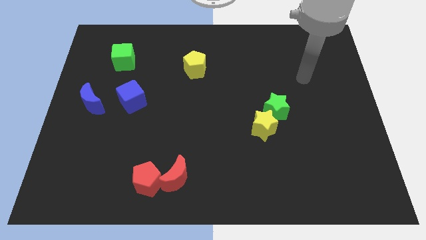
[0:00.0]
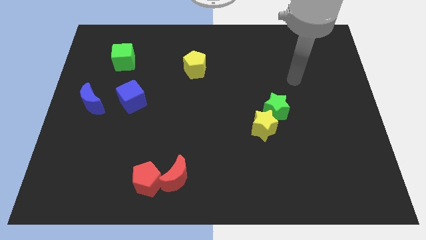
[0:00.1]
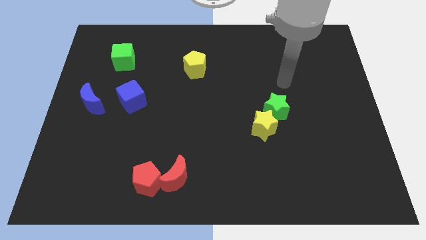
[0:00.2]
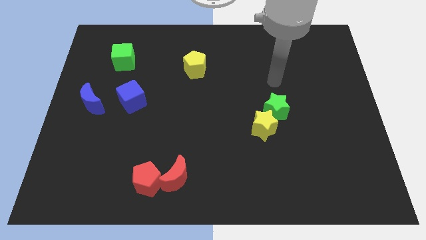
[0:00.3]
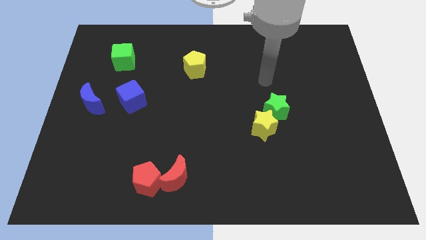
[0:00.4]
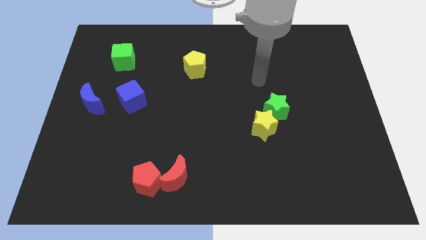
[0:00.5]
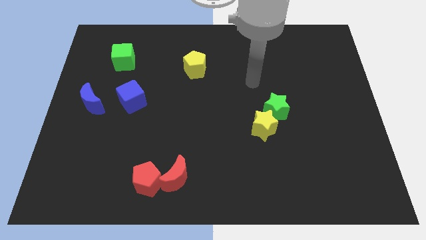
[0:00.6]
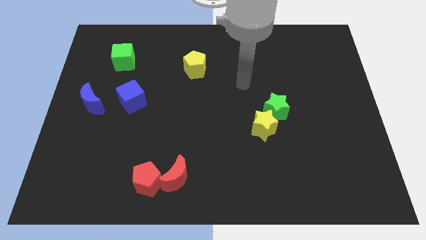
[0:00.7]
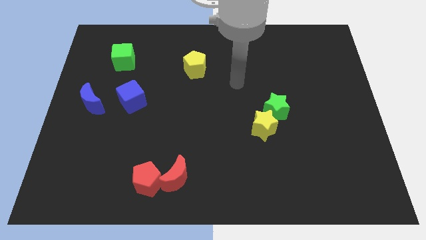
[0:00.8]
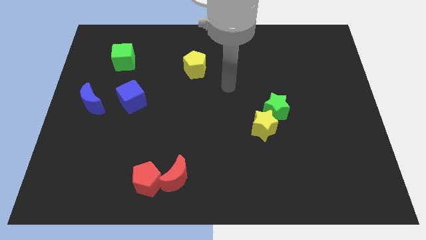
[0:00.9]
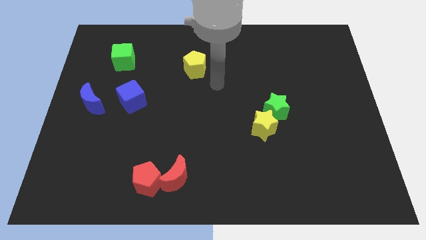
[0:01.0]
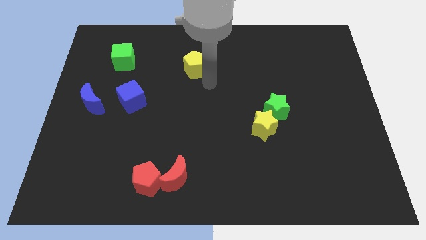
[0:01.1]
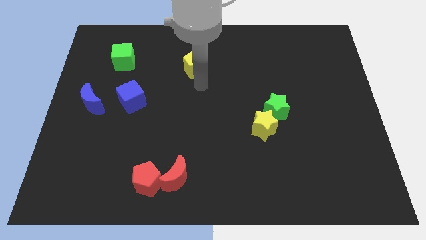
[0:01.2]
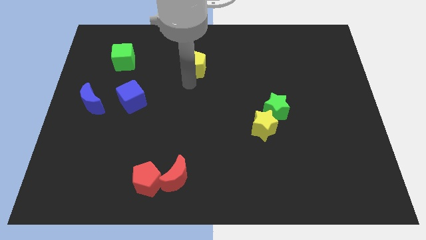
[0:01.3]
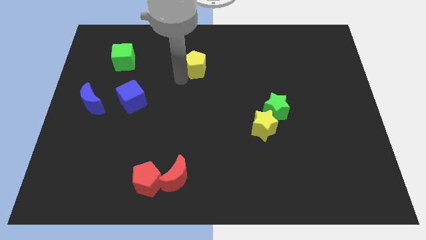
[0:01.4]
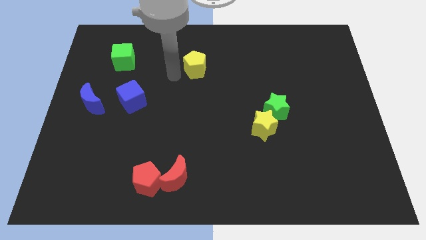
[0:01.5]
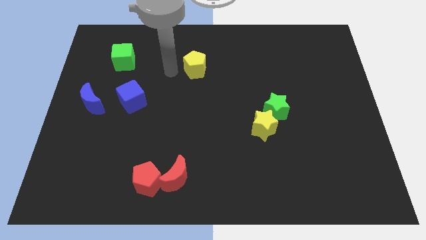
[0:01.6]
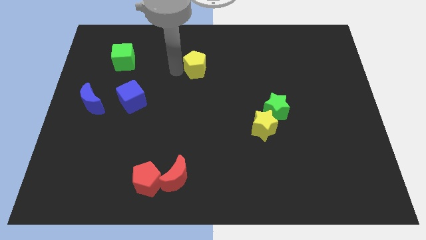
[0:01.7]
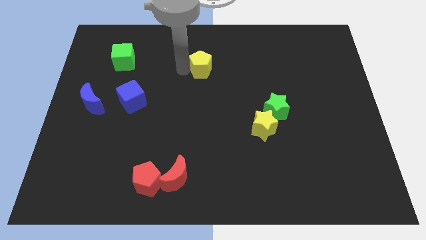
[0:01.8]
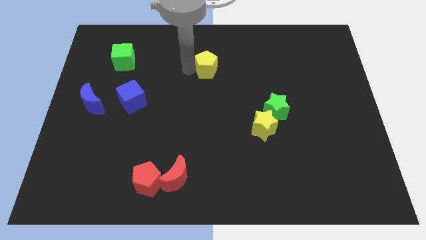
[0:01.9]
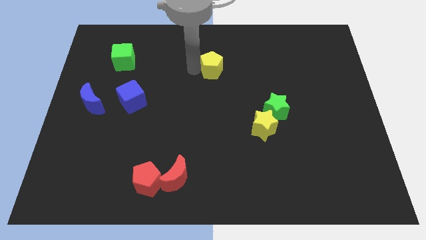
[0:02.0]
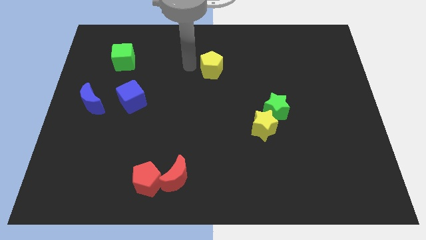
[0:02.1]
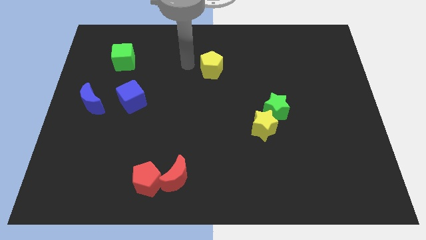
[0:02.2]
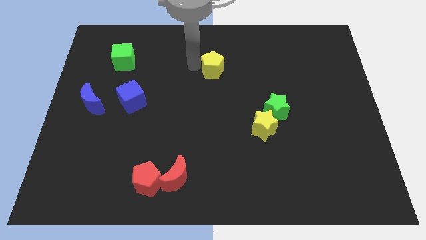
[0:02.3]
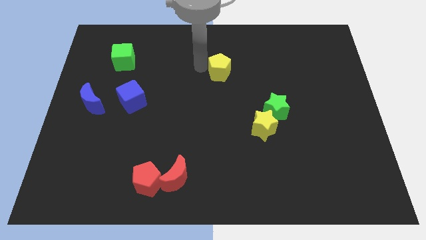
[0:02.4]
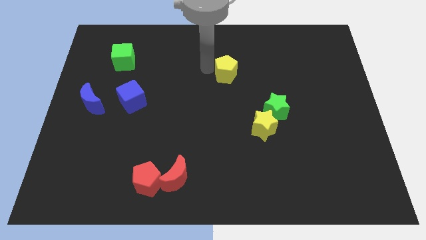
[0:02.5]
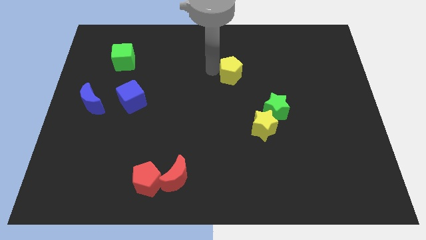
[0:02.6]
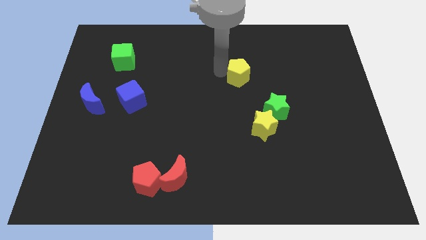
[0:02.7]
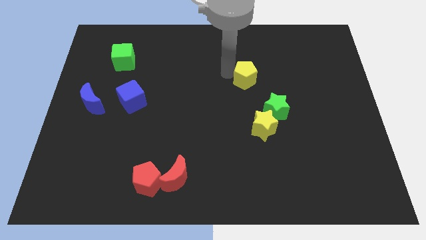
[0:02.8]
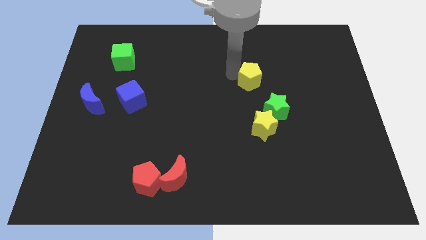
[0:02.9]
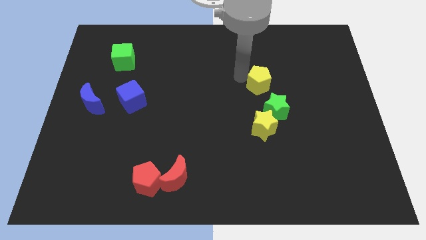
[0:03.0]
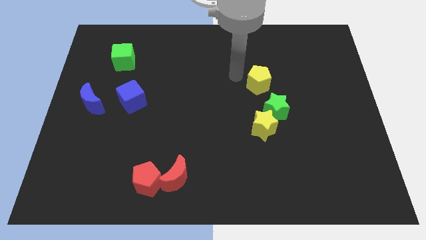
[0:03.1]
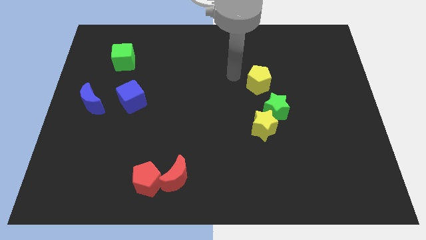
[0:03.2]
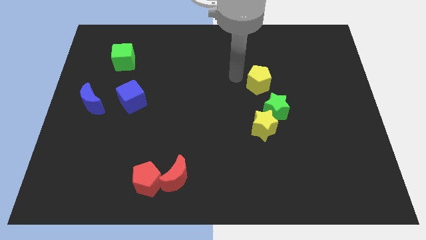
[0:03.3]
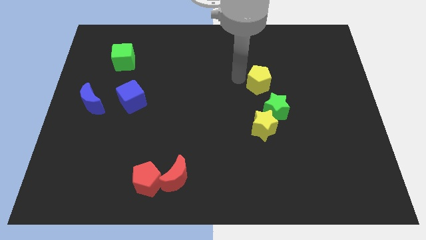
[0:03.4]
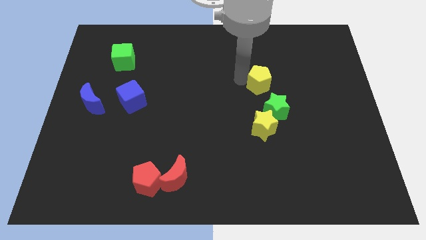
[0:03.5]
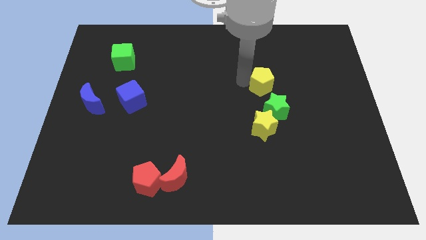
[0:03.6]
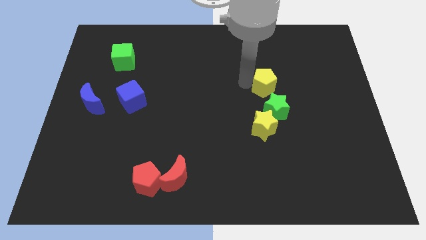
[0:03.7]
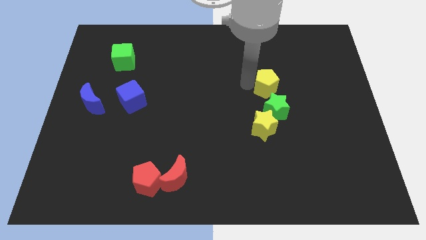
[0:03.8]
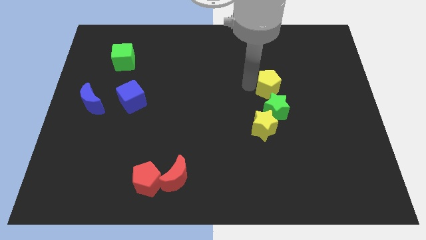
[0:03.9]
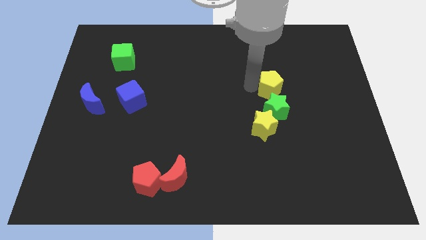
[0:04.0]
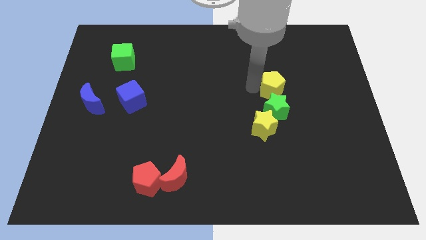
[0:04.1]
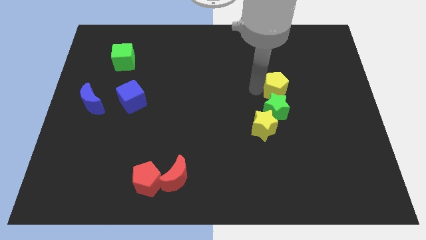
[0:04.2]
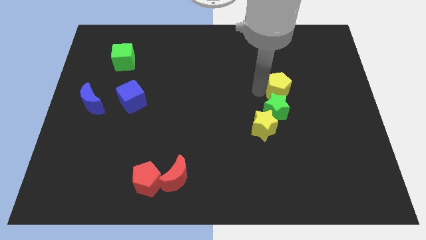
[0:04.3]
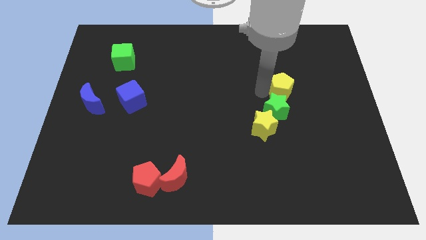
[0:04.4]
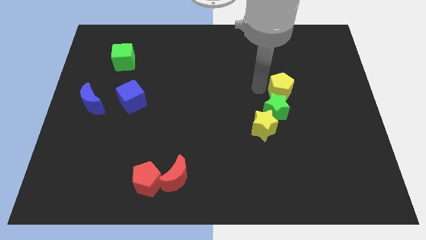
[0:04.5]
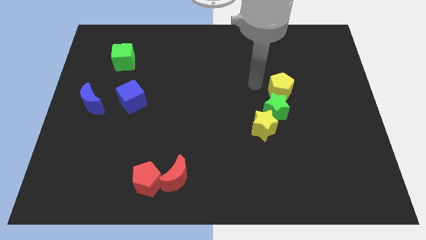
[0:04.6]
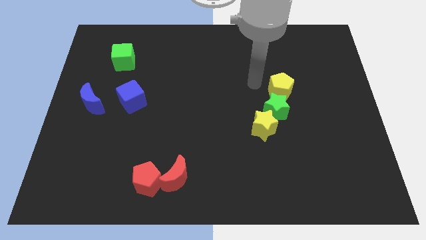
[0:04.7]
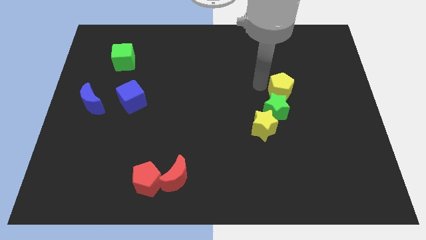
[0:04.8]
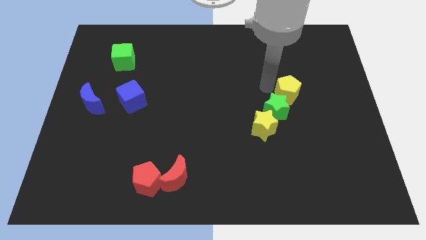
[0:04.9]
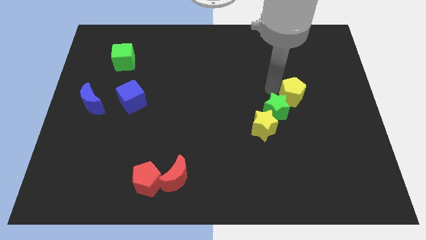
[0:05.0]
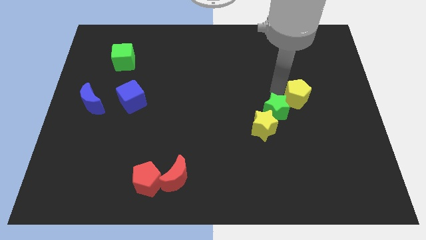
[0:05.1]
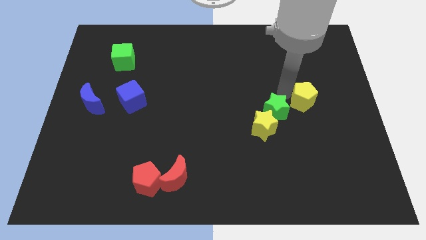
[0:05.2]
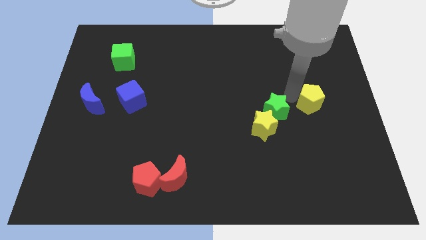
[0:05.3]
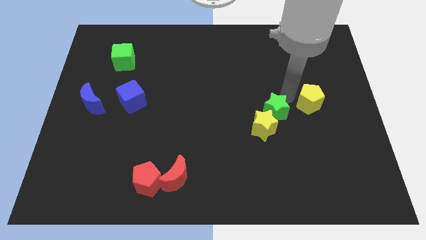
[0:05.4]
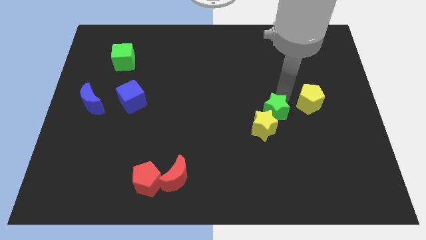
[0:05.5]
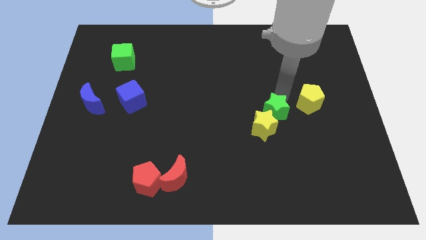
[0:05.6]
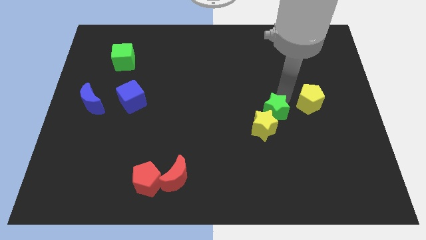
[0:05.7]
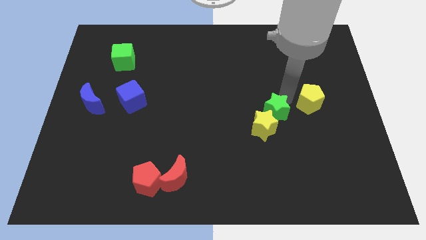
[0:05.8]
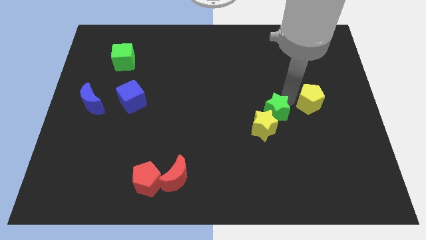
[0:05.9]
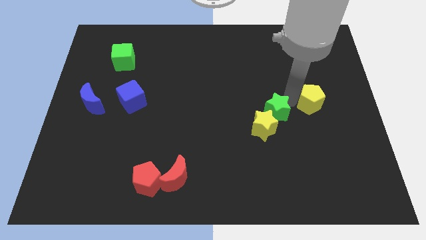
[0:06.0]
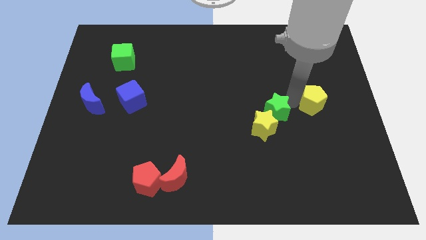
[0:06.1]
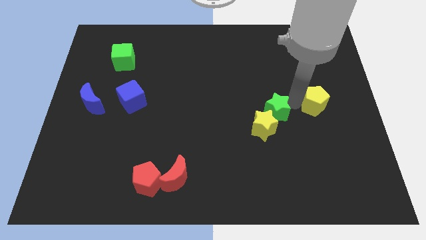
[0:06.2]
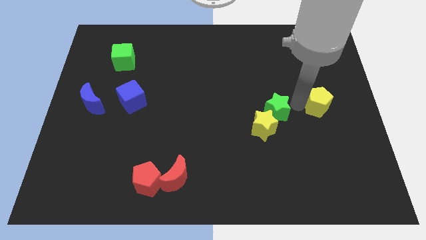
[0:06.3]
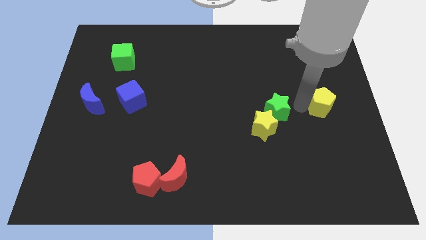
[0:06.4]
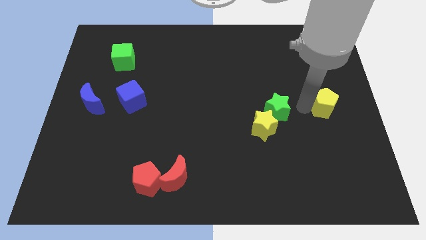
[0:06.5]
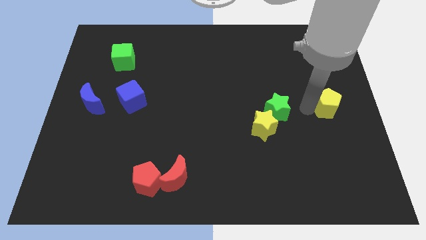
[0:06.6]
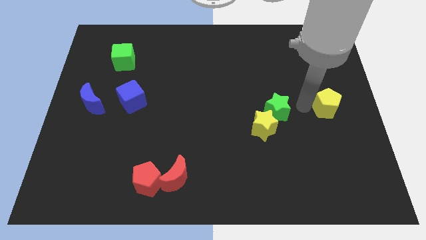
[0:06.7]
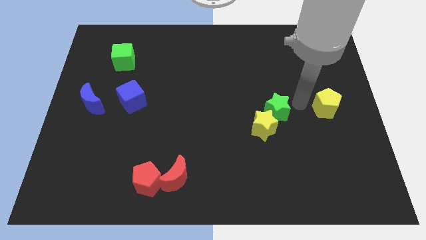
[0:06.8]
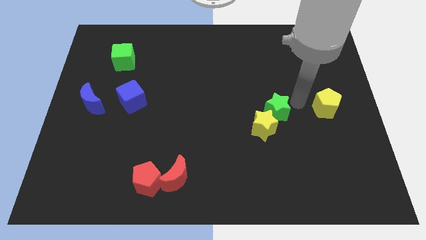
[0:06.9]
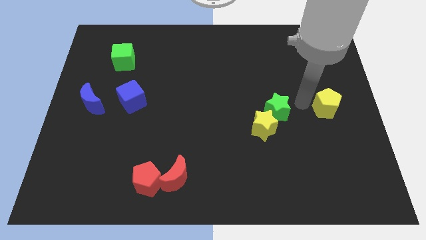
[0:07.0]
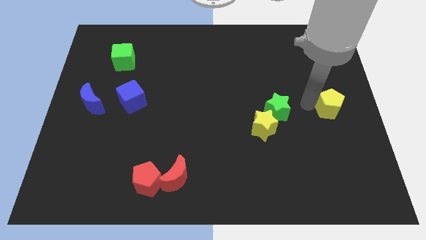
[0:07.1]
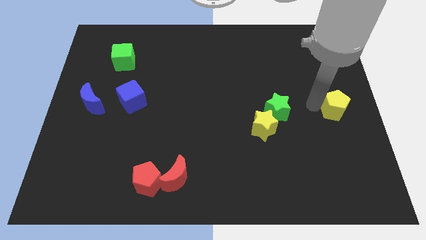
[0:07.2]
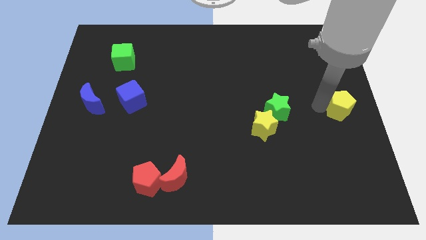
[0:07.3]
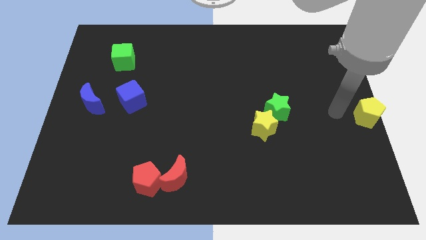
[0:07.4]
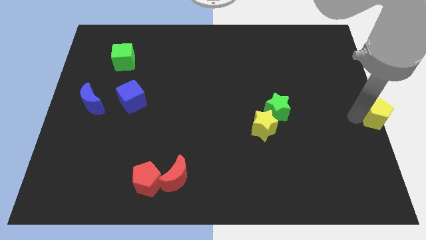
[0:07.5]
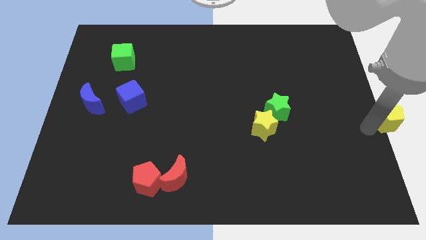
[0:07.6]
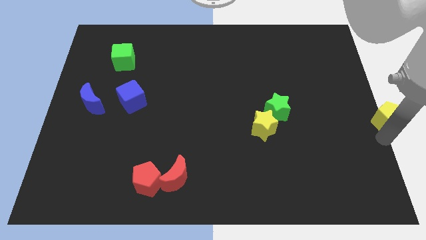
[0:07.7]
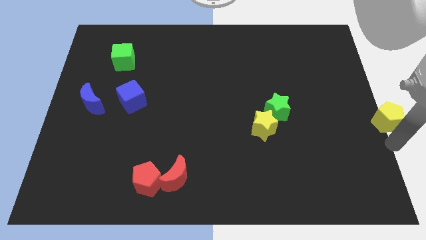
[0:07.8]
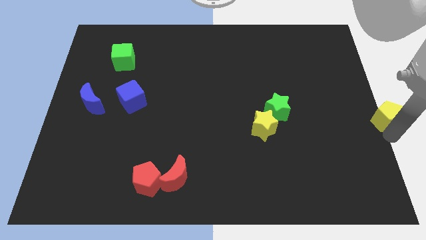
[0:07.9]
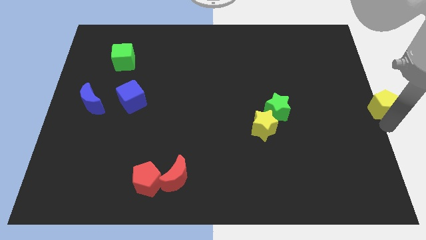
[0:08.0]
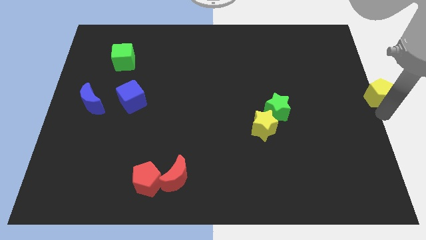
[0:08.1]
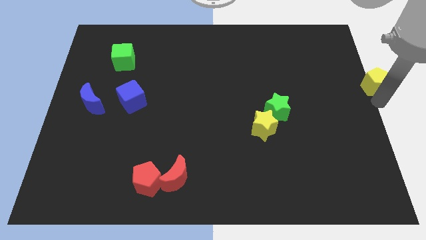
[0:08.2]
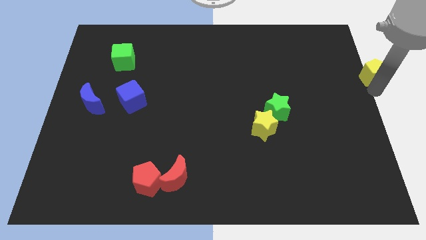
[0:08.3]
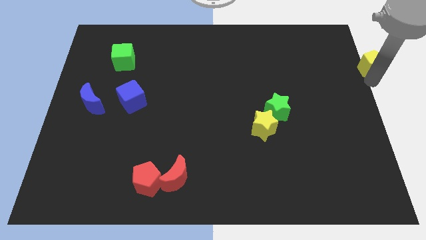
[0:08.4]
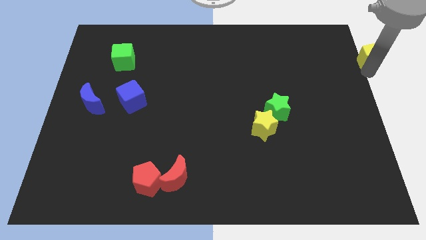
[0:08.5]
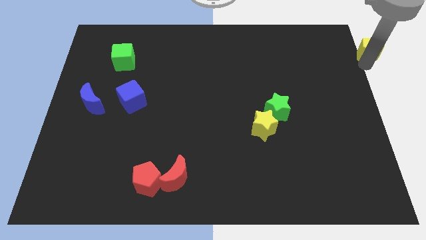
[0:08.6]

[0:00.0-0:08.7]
move the yellow pentagon to the upper right corner
